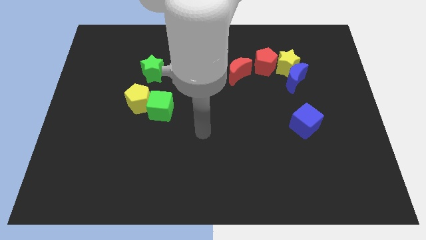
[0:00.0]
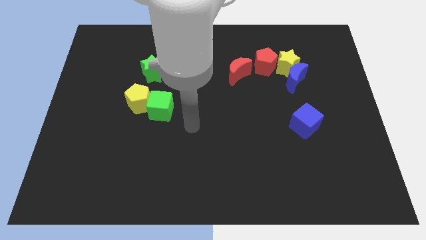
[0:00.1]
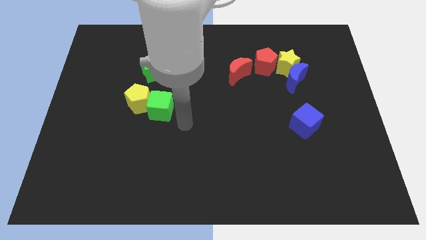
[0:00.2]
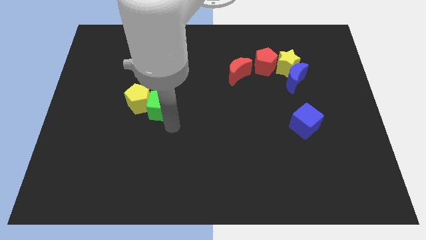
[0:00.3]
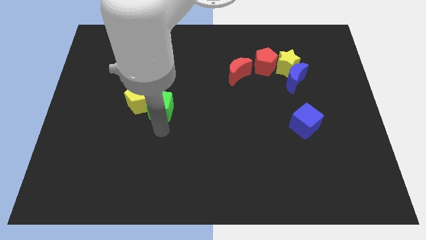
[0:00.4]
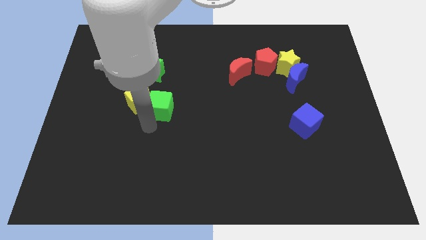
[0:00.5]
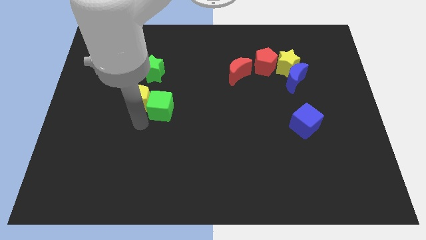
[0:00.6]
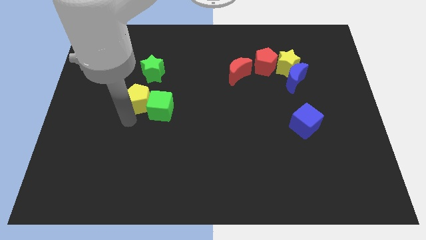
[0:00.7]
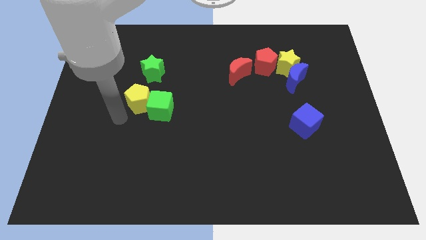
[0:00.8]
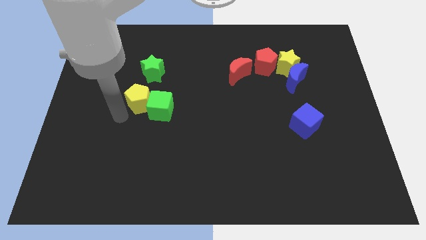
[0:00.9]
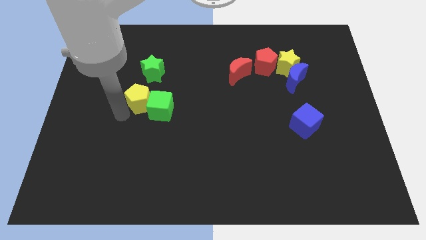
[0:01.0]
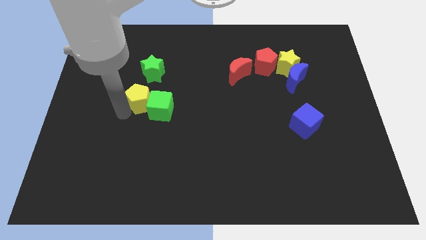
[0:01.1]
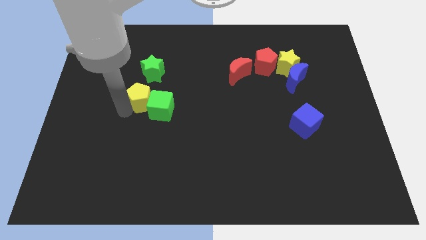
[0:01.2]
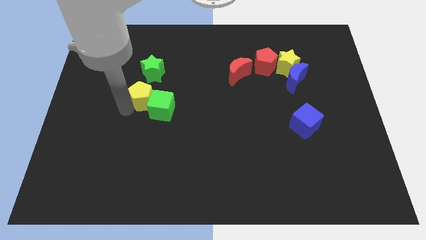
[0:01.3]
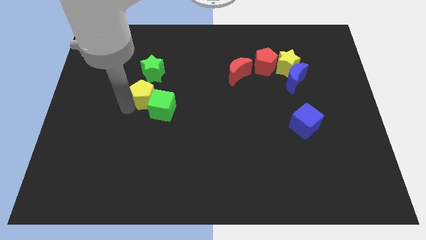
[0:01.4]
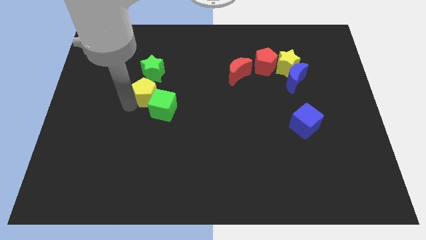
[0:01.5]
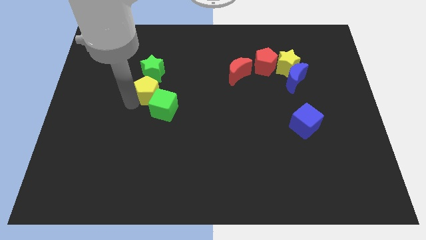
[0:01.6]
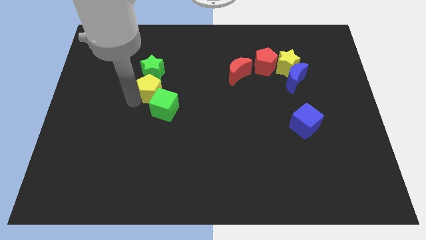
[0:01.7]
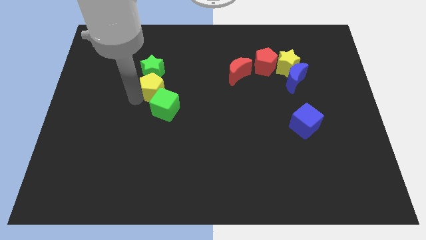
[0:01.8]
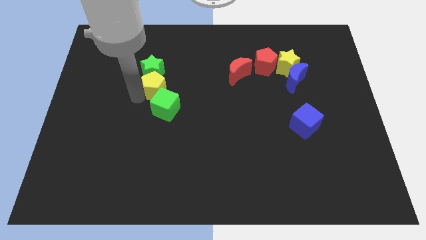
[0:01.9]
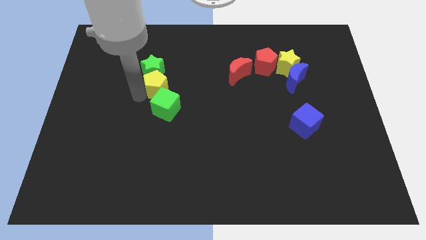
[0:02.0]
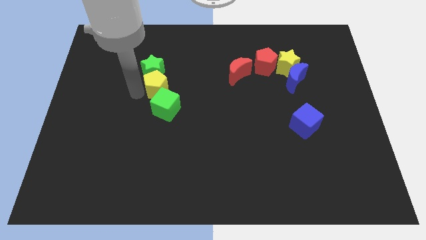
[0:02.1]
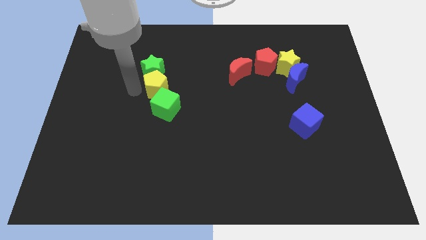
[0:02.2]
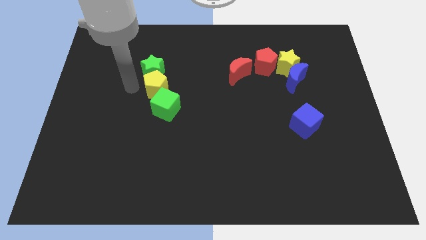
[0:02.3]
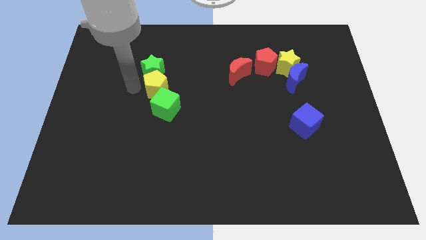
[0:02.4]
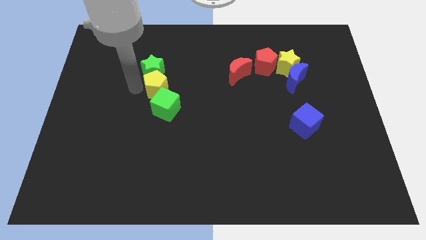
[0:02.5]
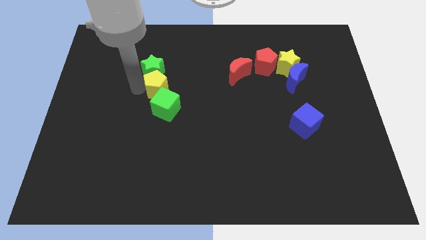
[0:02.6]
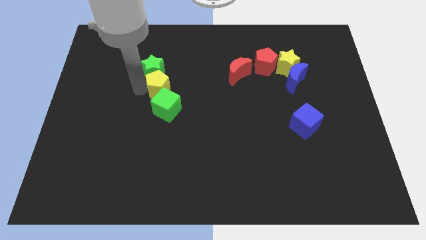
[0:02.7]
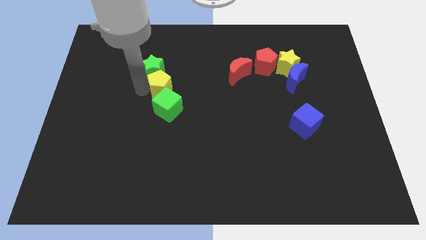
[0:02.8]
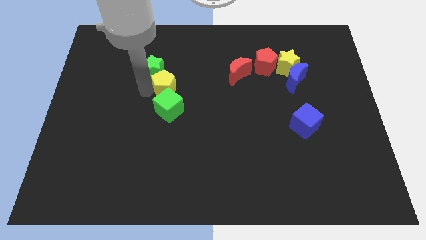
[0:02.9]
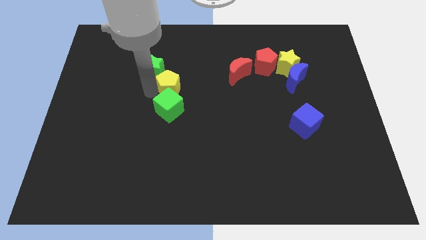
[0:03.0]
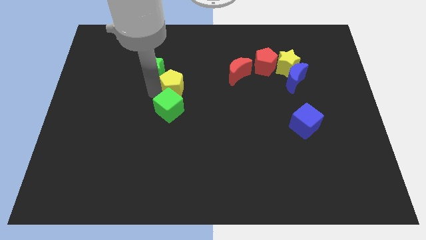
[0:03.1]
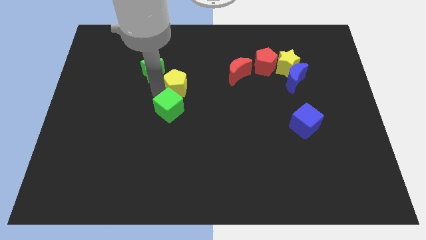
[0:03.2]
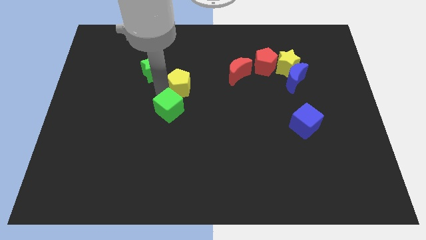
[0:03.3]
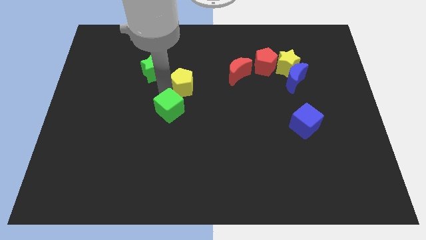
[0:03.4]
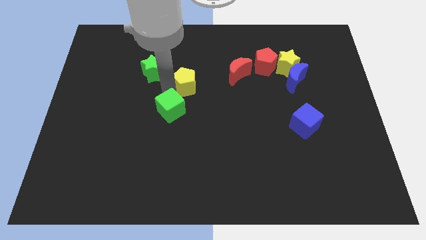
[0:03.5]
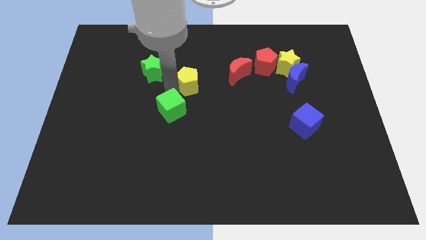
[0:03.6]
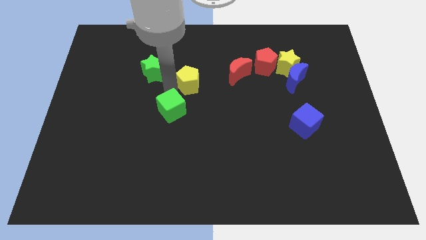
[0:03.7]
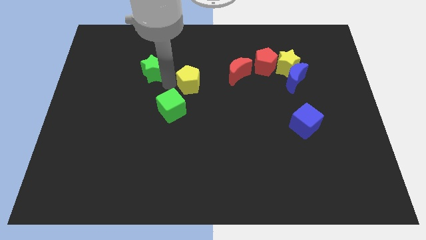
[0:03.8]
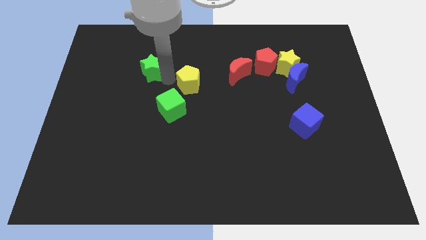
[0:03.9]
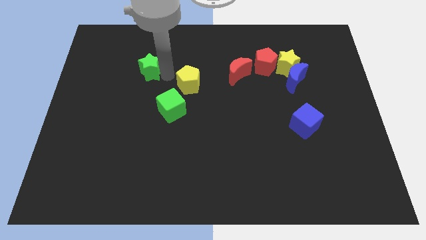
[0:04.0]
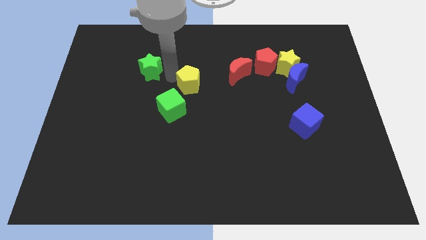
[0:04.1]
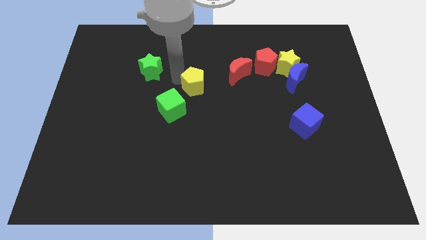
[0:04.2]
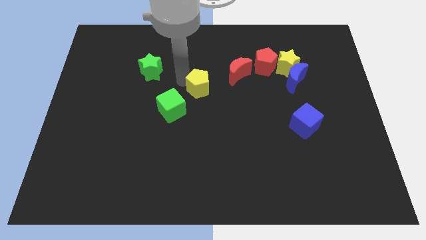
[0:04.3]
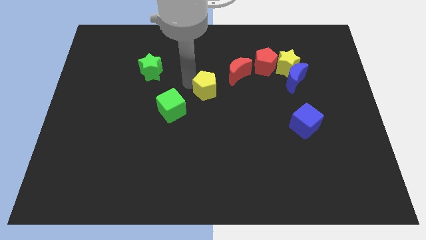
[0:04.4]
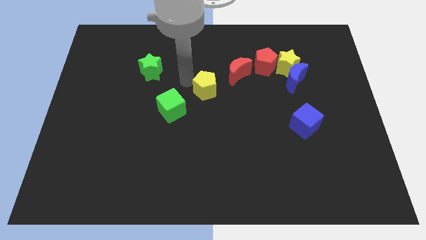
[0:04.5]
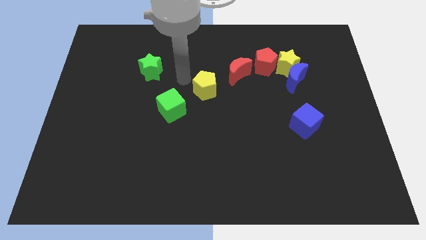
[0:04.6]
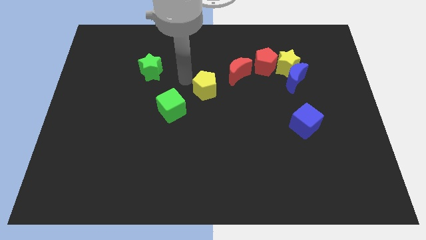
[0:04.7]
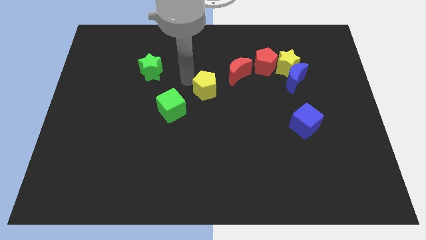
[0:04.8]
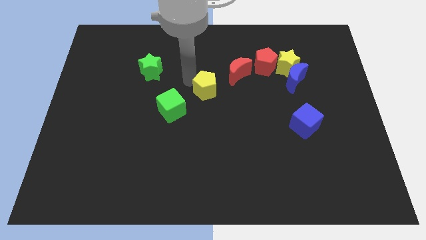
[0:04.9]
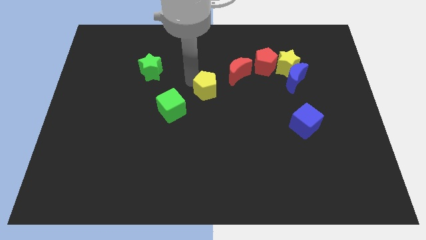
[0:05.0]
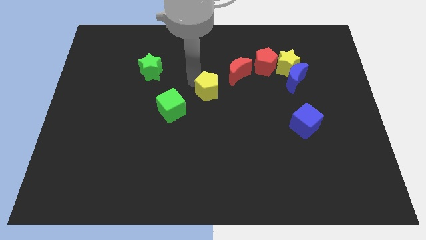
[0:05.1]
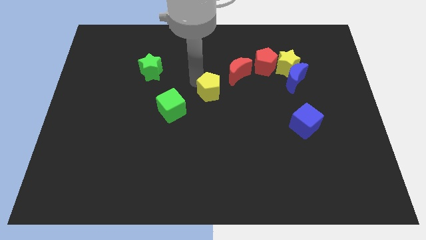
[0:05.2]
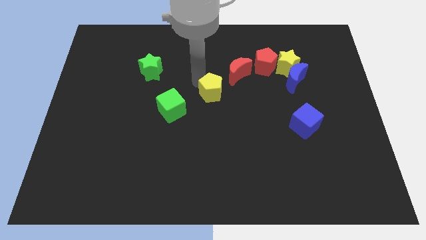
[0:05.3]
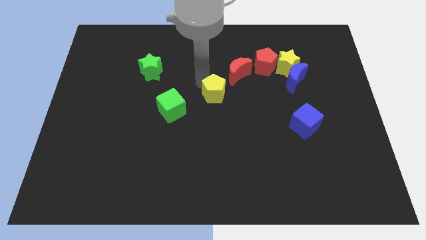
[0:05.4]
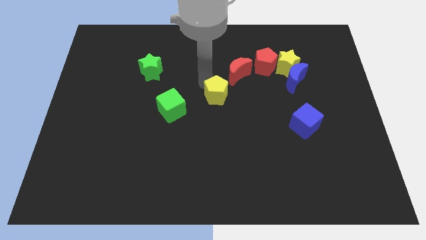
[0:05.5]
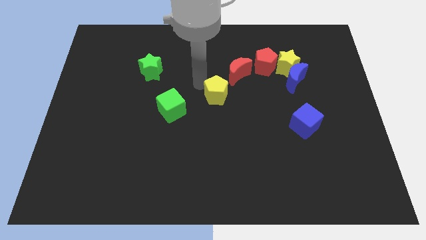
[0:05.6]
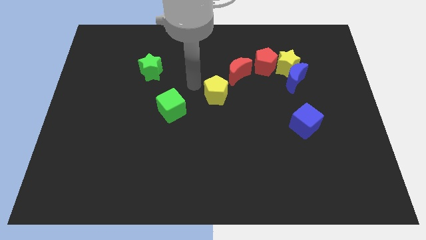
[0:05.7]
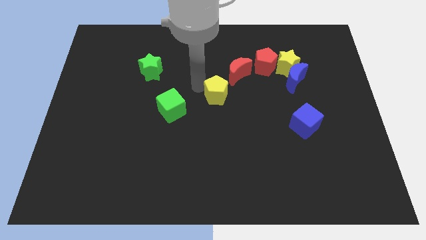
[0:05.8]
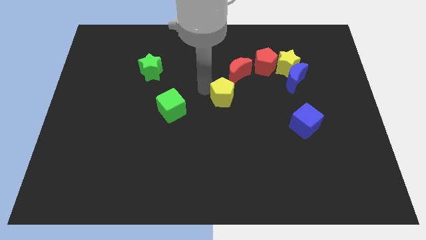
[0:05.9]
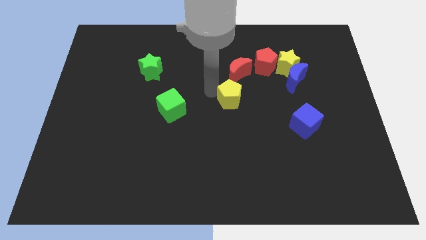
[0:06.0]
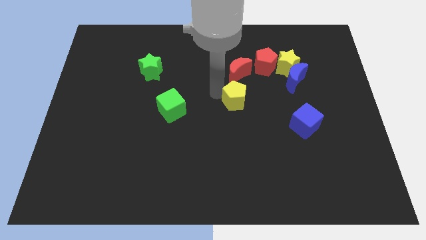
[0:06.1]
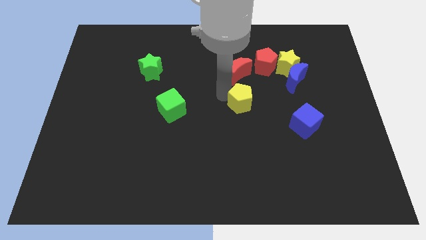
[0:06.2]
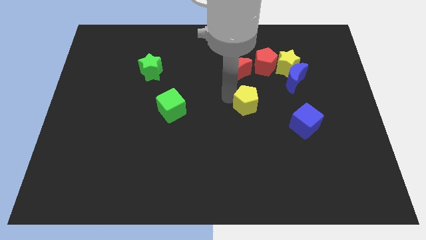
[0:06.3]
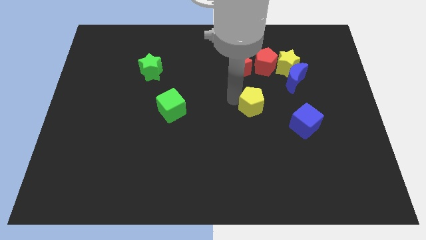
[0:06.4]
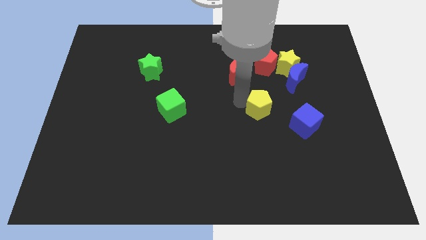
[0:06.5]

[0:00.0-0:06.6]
move the yellow pentagon diagonally up and to the left of the blue cube

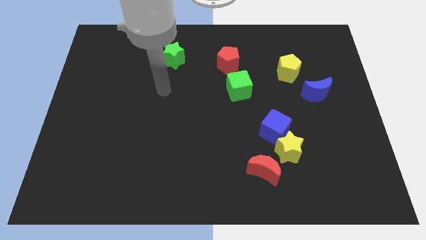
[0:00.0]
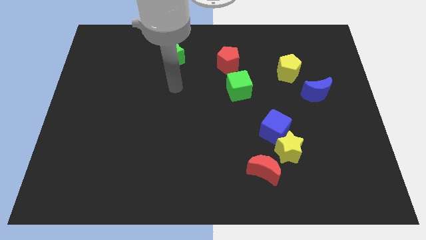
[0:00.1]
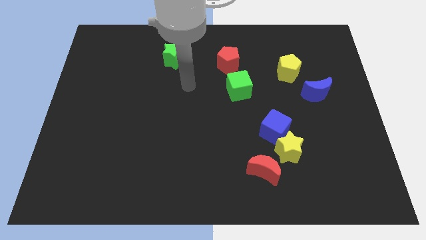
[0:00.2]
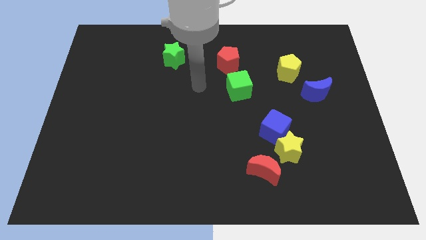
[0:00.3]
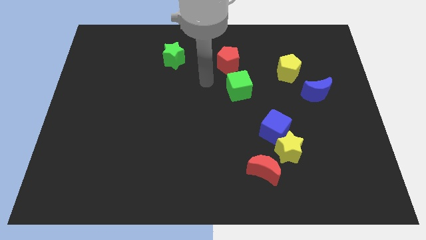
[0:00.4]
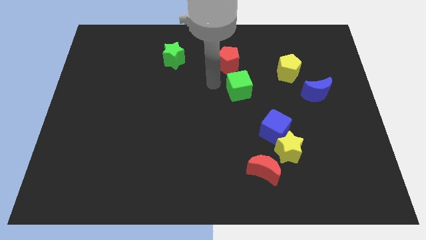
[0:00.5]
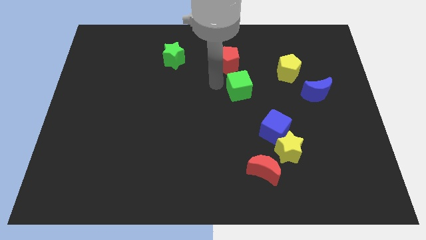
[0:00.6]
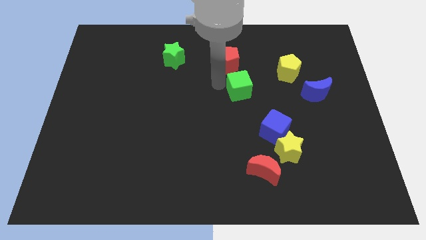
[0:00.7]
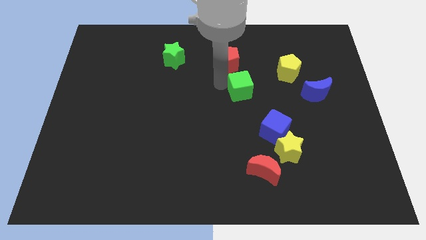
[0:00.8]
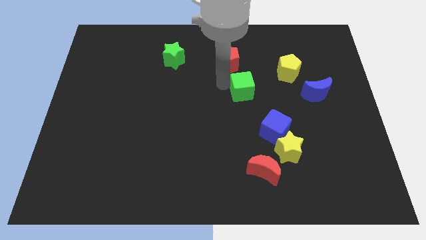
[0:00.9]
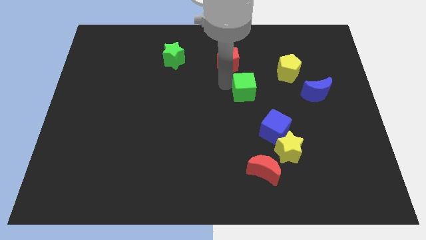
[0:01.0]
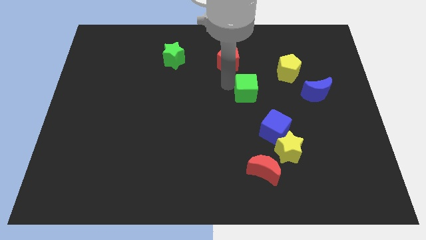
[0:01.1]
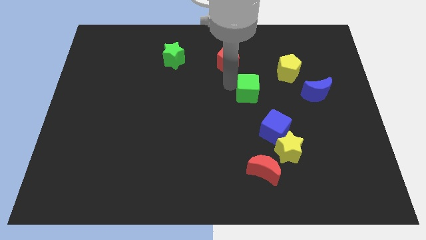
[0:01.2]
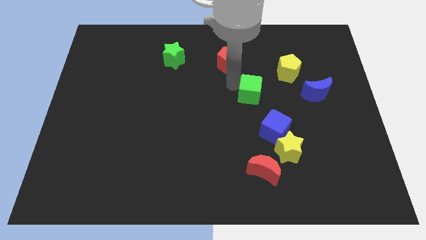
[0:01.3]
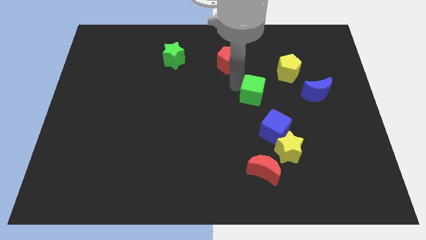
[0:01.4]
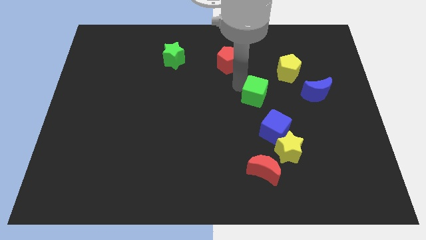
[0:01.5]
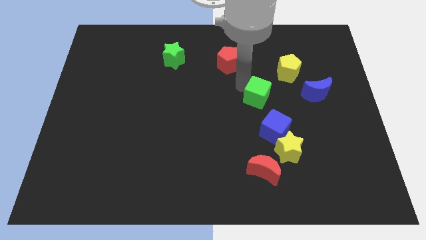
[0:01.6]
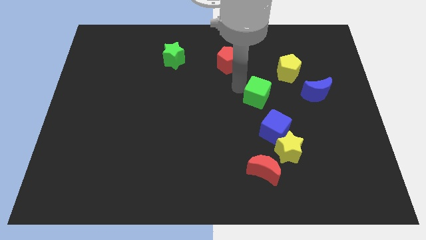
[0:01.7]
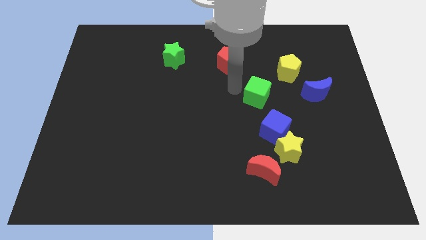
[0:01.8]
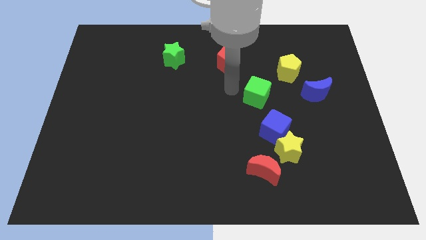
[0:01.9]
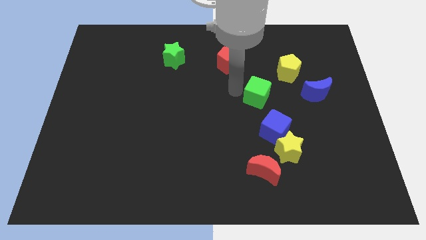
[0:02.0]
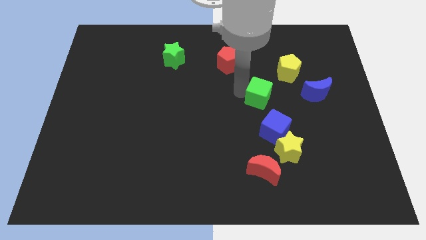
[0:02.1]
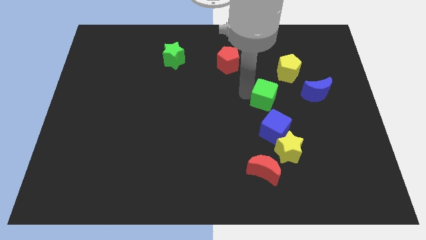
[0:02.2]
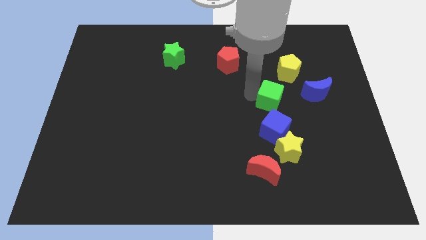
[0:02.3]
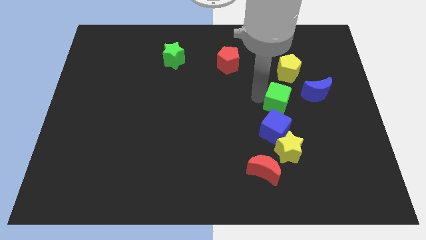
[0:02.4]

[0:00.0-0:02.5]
slide the green cube below the yellow pentagon
